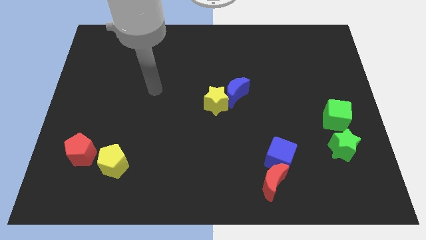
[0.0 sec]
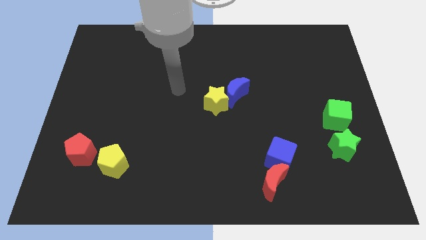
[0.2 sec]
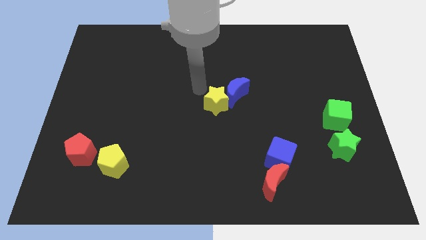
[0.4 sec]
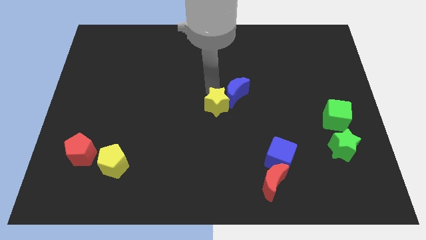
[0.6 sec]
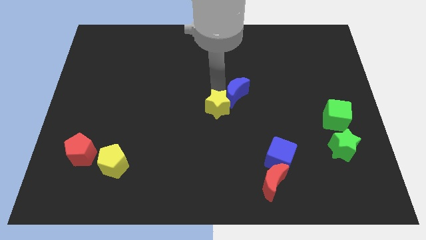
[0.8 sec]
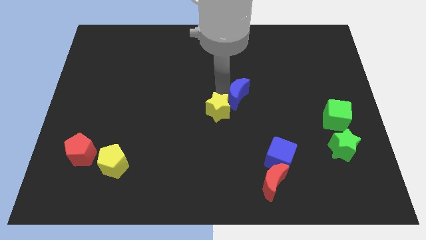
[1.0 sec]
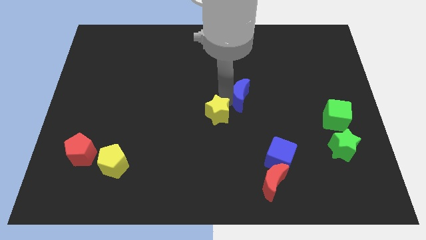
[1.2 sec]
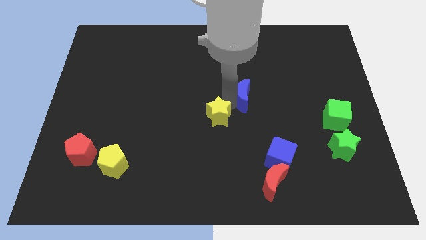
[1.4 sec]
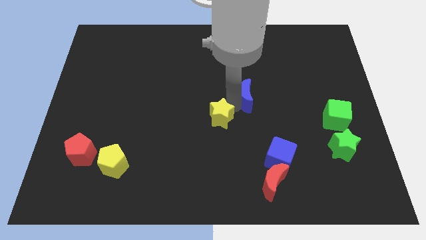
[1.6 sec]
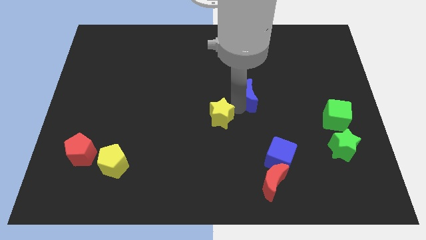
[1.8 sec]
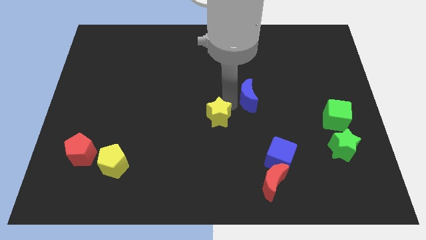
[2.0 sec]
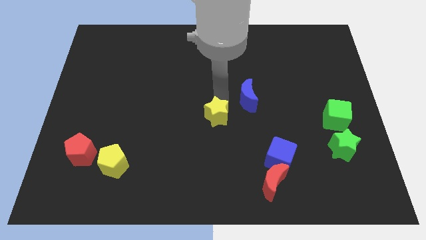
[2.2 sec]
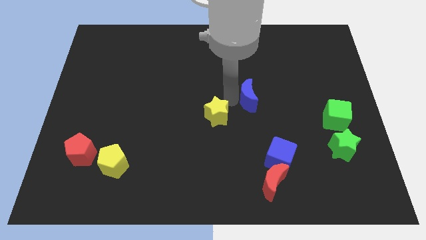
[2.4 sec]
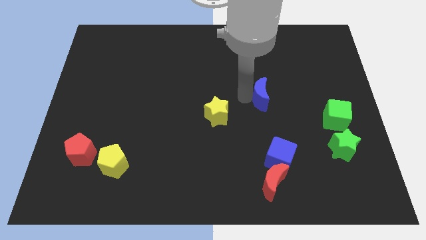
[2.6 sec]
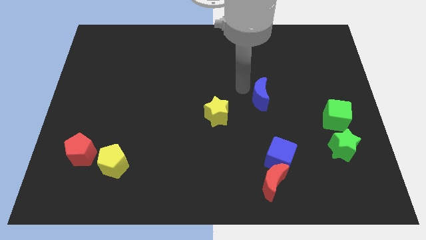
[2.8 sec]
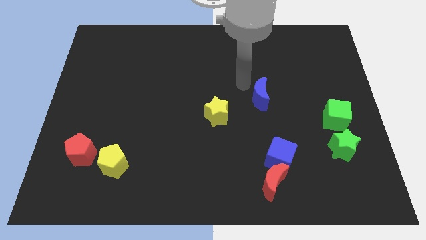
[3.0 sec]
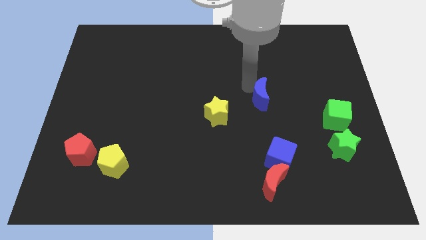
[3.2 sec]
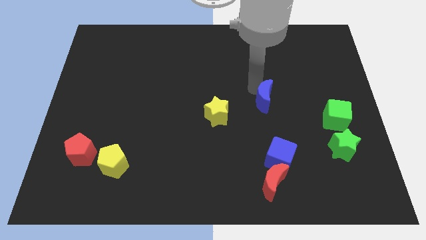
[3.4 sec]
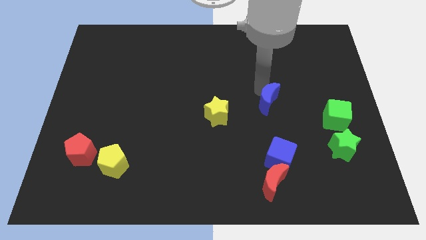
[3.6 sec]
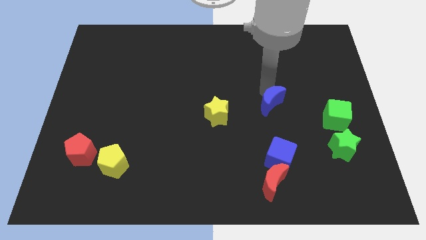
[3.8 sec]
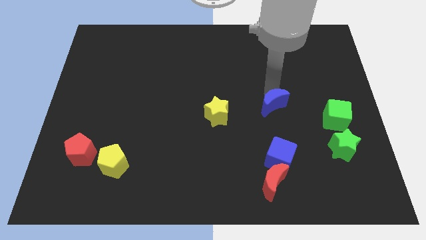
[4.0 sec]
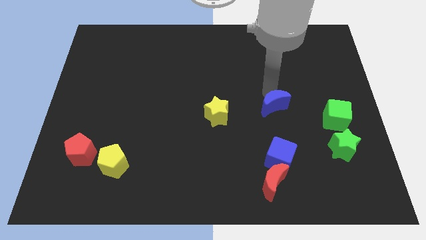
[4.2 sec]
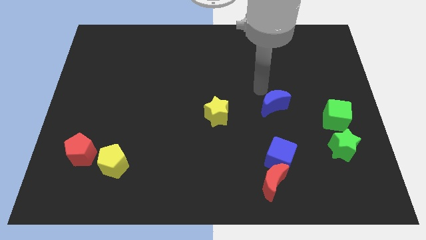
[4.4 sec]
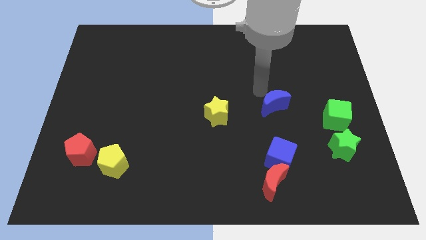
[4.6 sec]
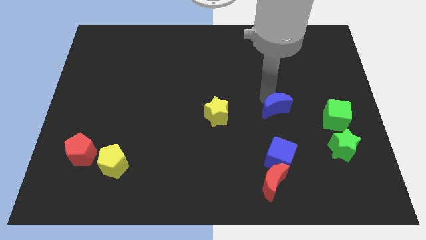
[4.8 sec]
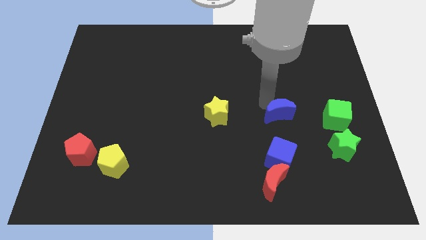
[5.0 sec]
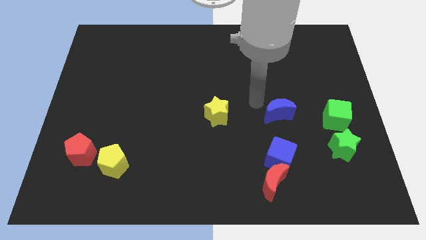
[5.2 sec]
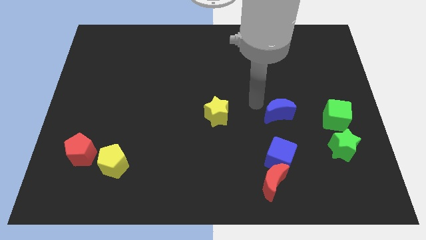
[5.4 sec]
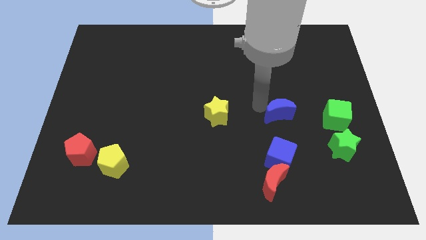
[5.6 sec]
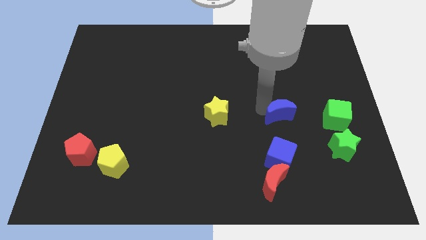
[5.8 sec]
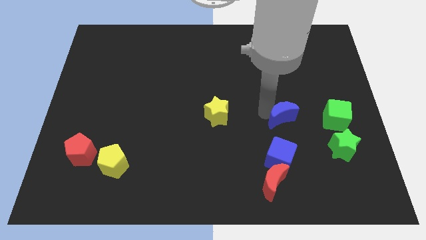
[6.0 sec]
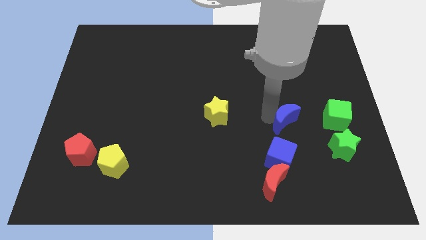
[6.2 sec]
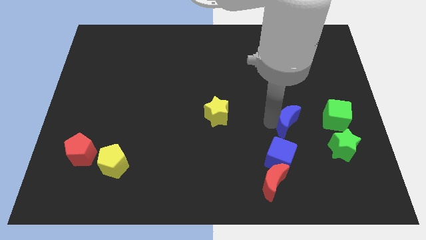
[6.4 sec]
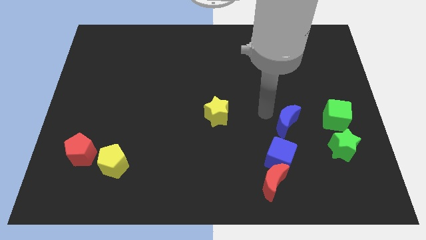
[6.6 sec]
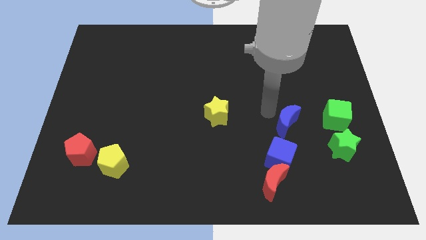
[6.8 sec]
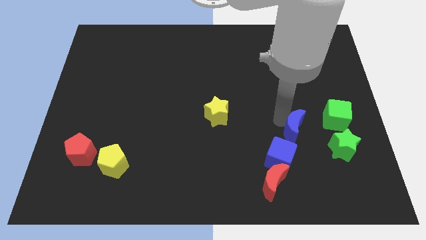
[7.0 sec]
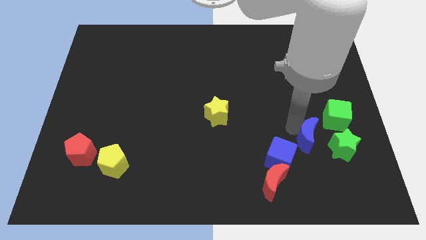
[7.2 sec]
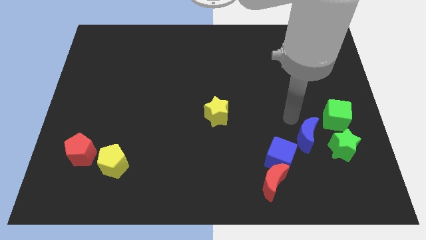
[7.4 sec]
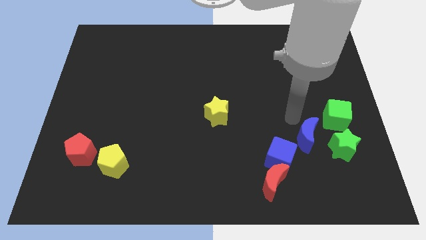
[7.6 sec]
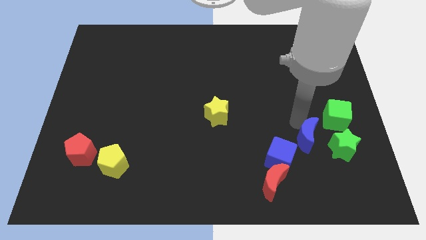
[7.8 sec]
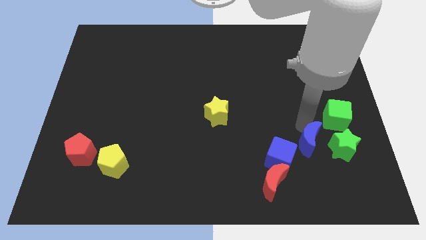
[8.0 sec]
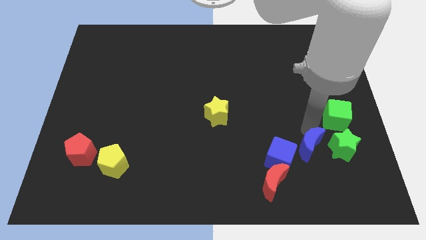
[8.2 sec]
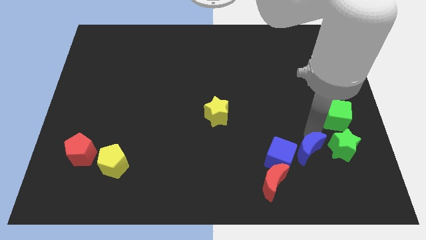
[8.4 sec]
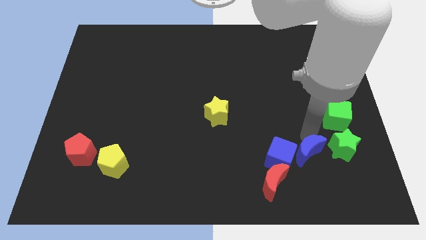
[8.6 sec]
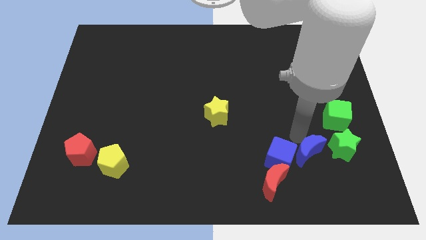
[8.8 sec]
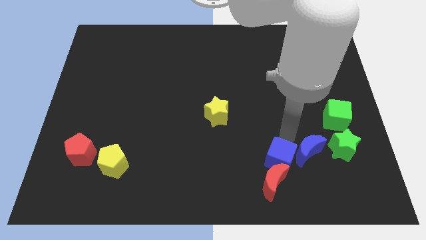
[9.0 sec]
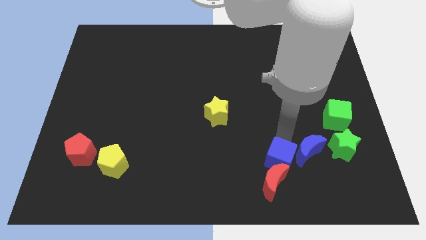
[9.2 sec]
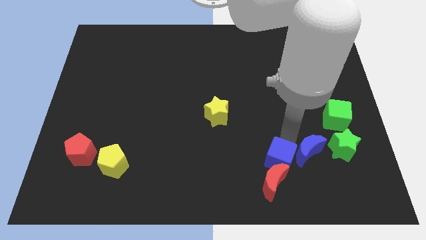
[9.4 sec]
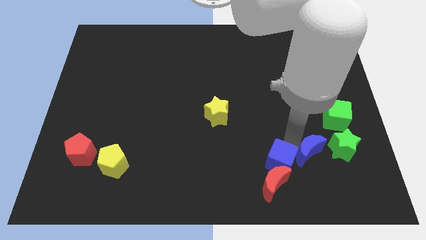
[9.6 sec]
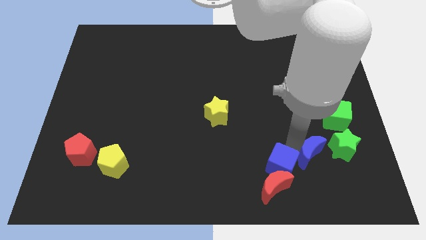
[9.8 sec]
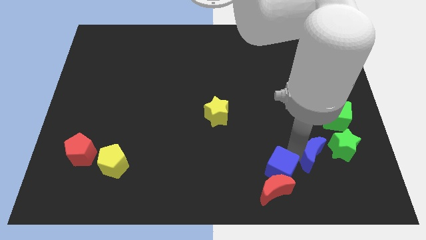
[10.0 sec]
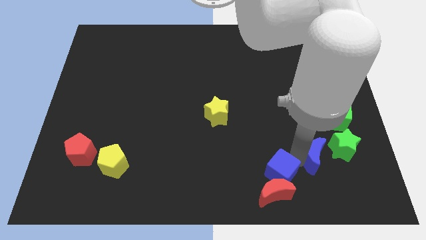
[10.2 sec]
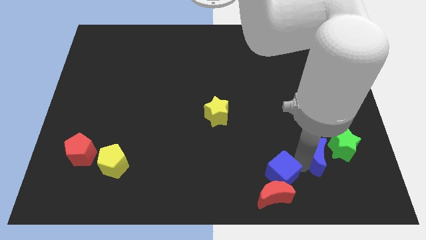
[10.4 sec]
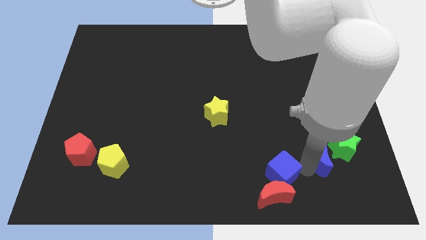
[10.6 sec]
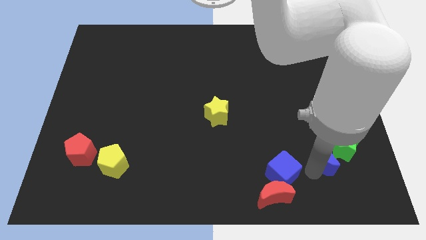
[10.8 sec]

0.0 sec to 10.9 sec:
slide the blue moon to the bottom side of the green cube

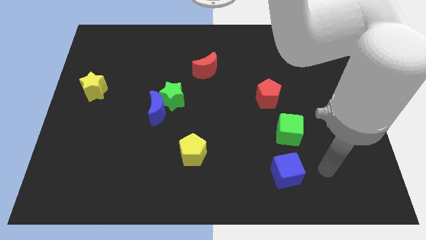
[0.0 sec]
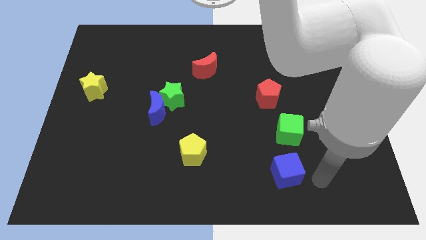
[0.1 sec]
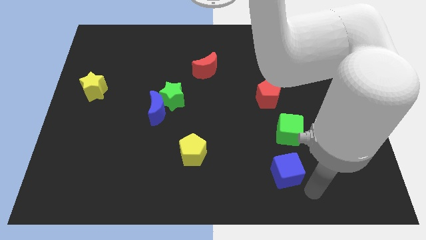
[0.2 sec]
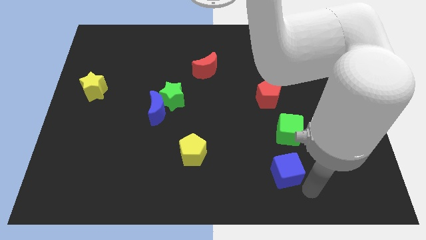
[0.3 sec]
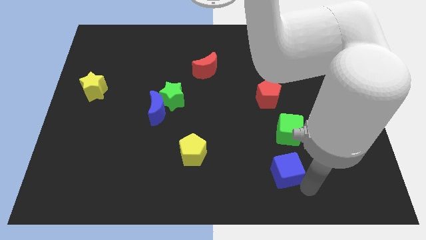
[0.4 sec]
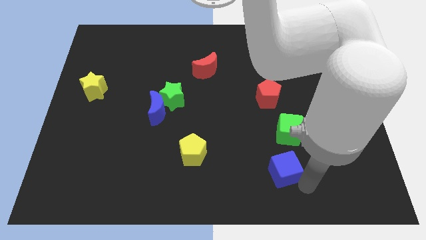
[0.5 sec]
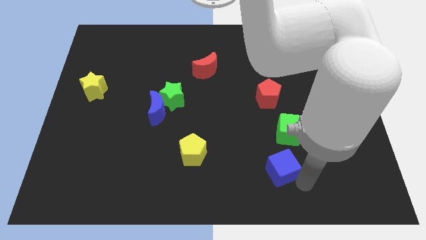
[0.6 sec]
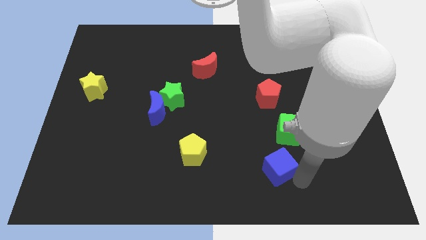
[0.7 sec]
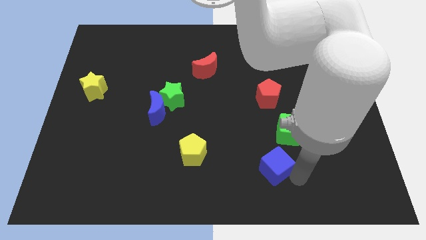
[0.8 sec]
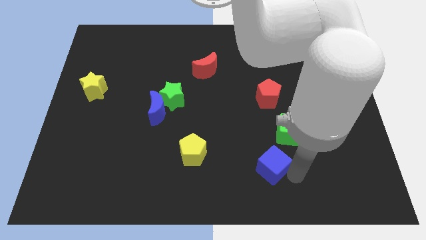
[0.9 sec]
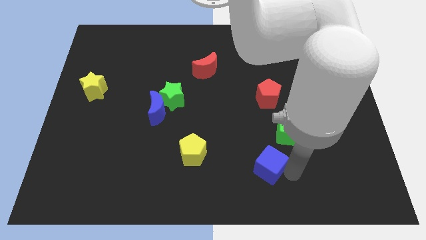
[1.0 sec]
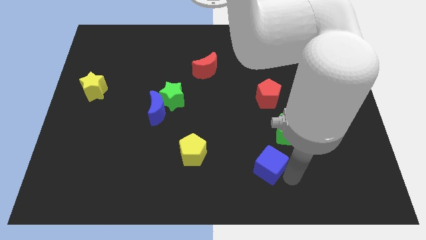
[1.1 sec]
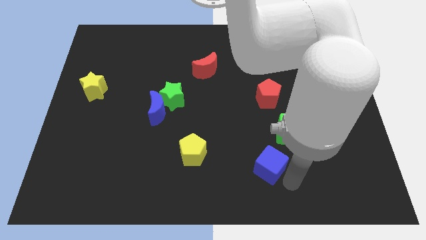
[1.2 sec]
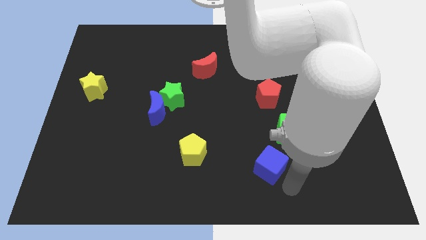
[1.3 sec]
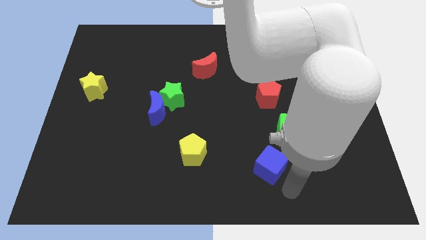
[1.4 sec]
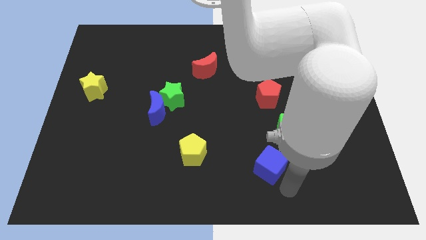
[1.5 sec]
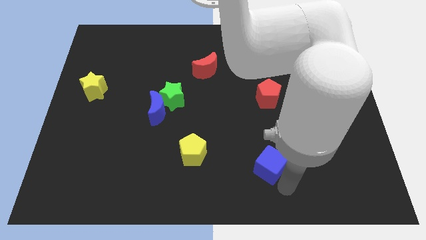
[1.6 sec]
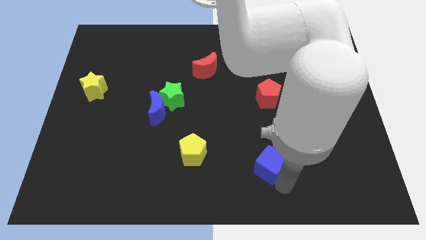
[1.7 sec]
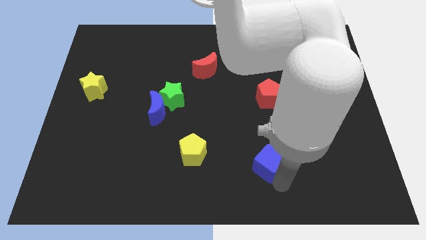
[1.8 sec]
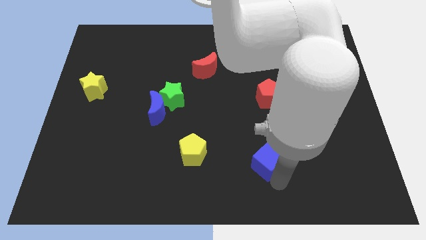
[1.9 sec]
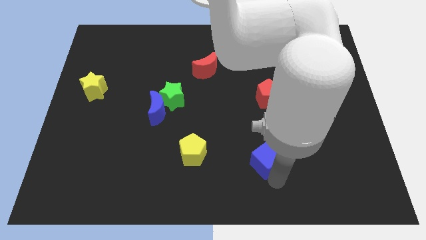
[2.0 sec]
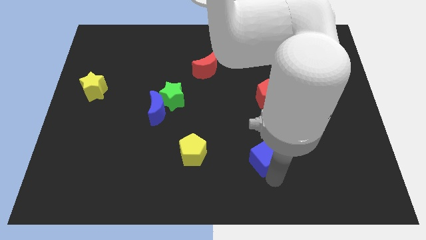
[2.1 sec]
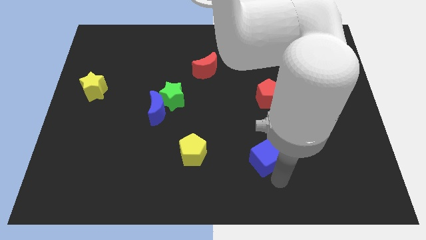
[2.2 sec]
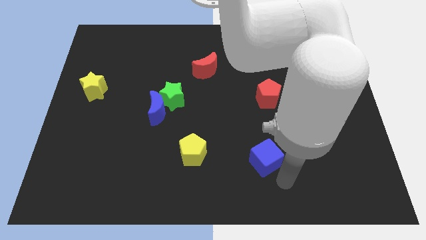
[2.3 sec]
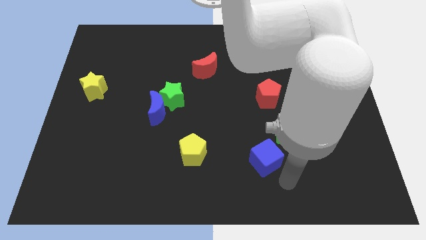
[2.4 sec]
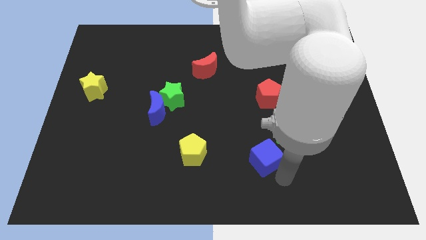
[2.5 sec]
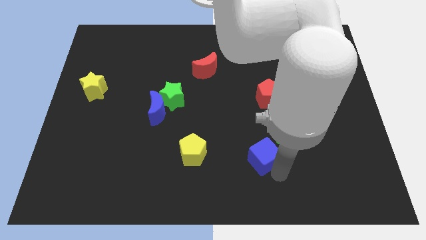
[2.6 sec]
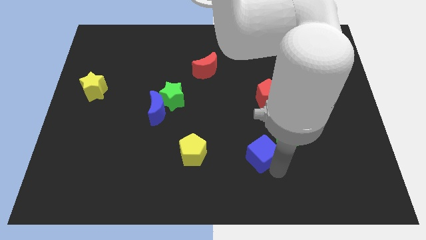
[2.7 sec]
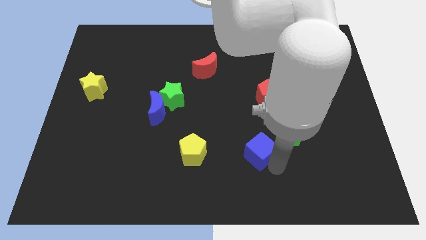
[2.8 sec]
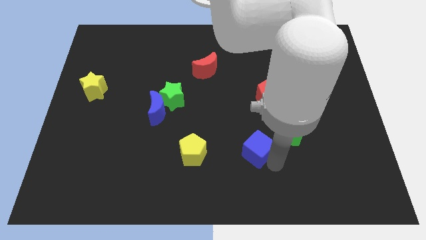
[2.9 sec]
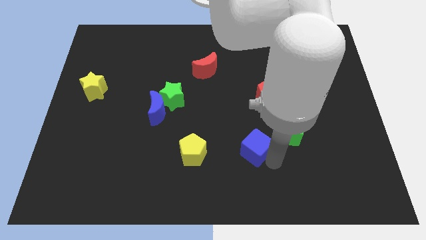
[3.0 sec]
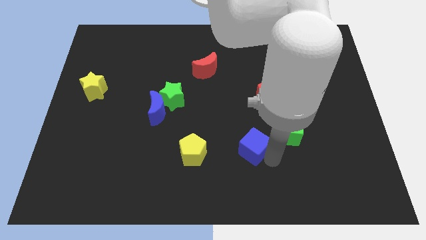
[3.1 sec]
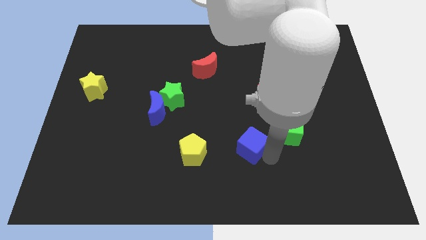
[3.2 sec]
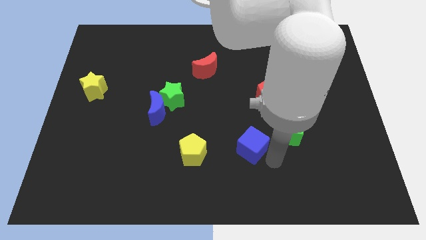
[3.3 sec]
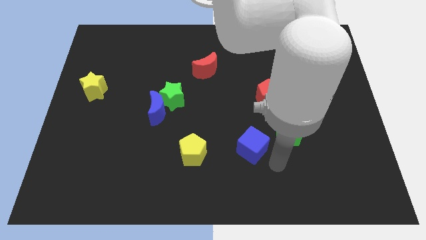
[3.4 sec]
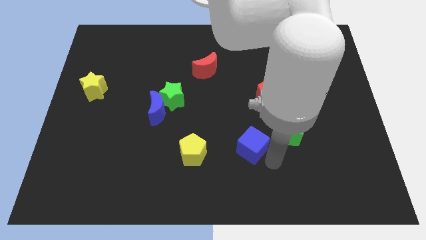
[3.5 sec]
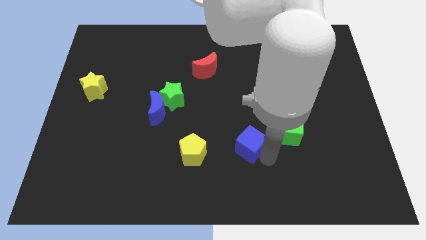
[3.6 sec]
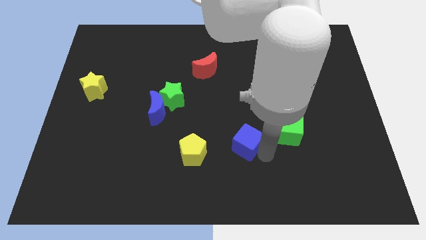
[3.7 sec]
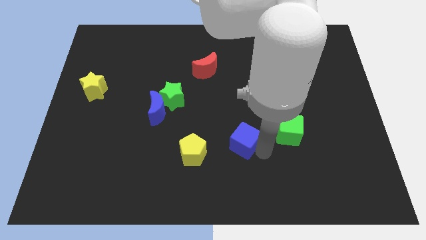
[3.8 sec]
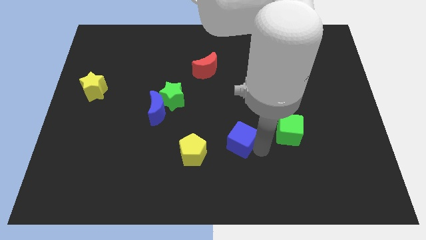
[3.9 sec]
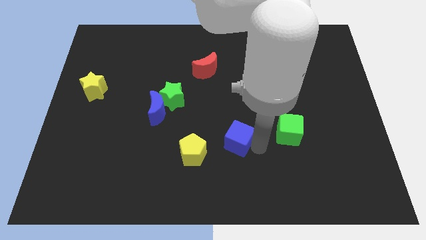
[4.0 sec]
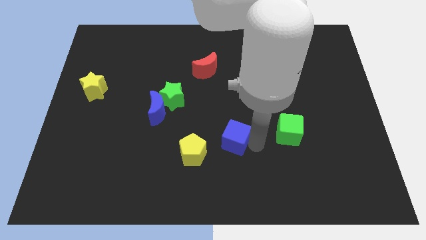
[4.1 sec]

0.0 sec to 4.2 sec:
push the blue cube to the top right side of the yellow pentagon
